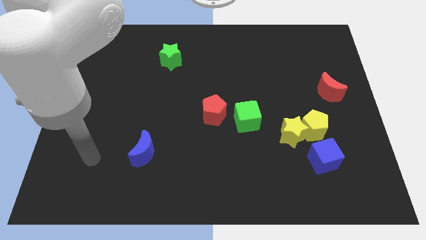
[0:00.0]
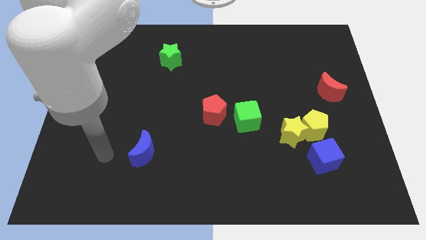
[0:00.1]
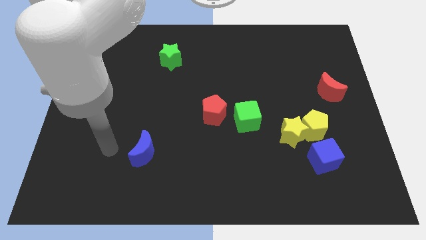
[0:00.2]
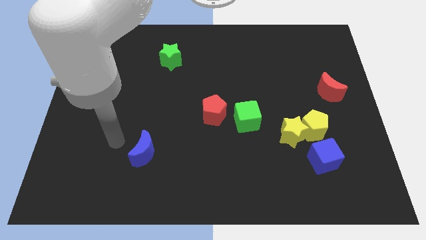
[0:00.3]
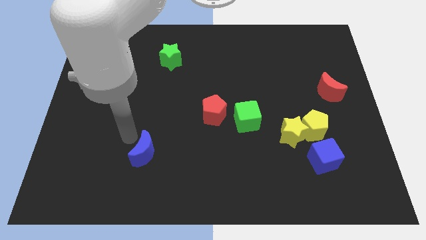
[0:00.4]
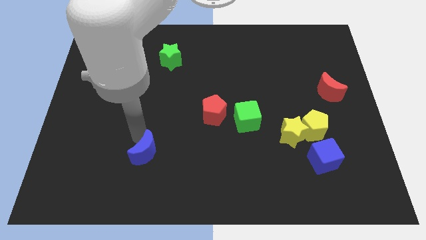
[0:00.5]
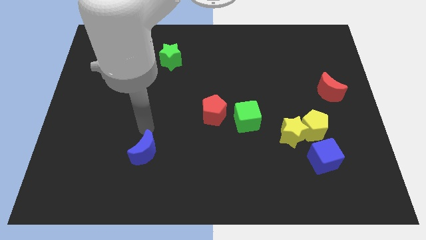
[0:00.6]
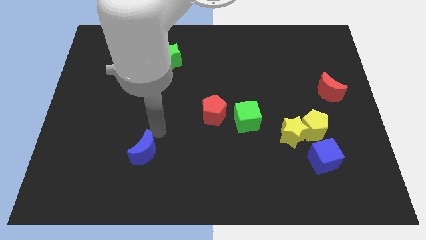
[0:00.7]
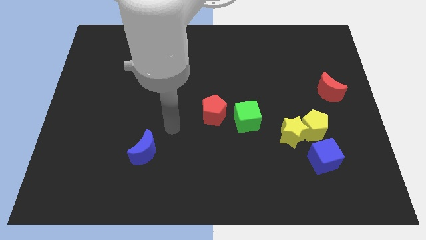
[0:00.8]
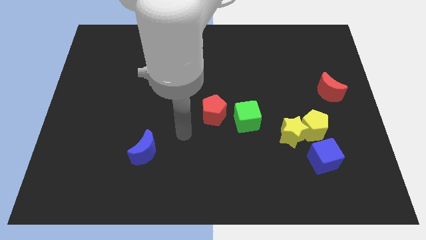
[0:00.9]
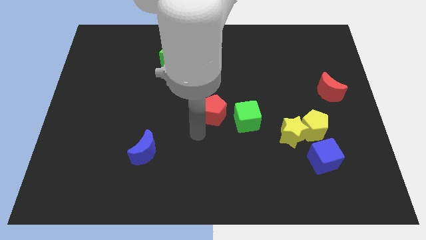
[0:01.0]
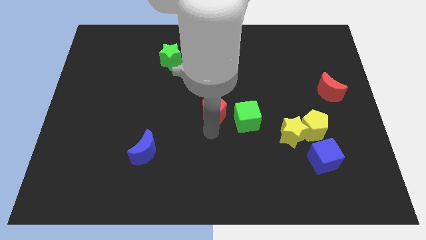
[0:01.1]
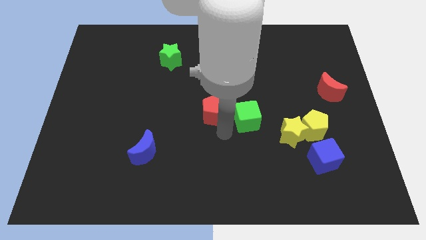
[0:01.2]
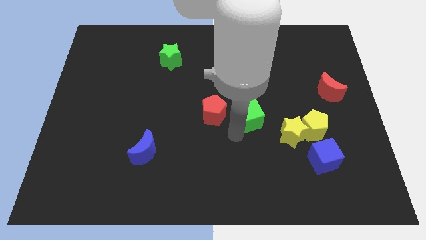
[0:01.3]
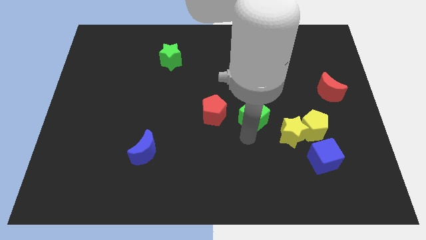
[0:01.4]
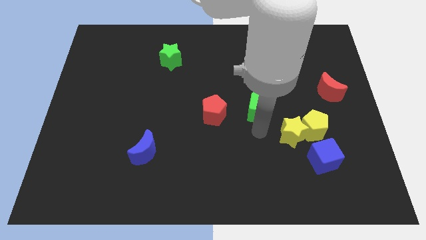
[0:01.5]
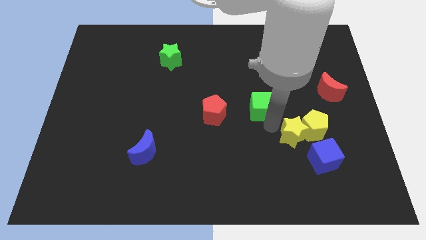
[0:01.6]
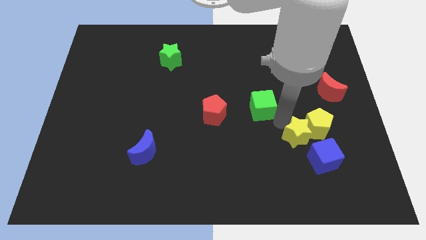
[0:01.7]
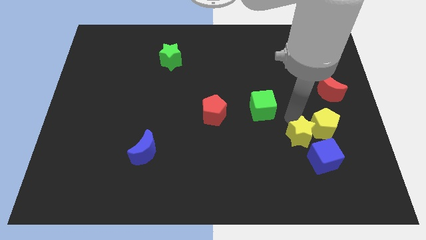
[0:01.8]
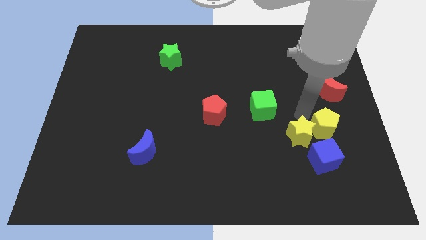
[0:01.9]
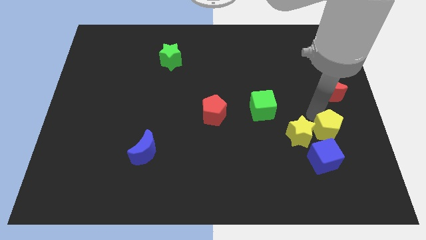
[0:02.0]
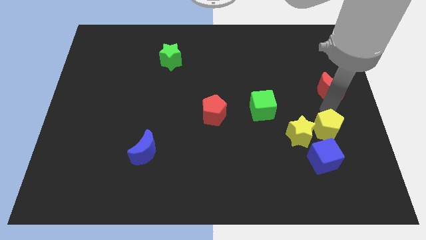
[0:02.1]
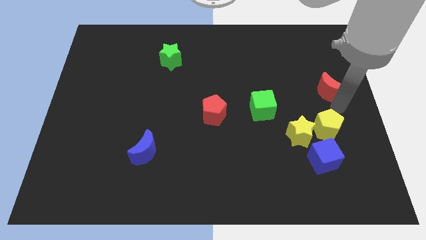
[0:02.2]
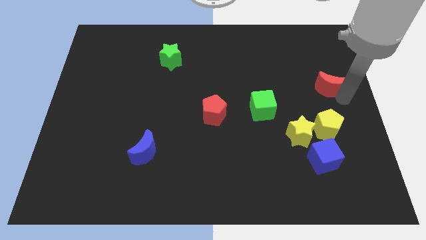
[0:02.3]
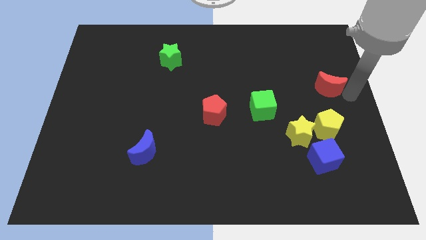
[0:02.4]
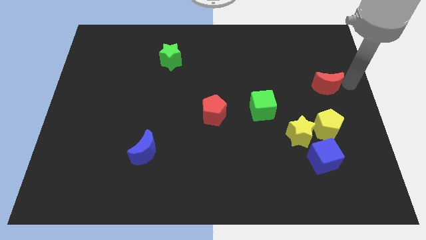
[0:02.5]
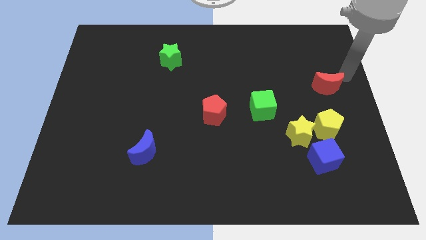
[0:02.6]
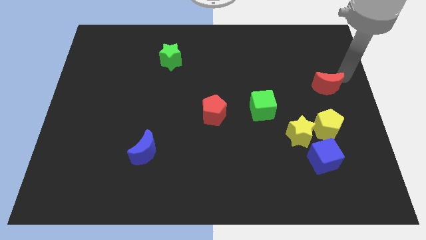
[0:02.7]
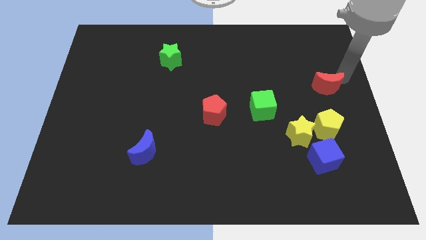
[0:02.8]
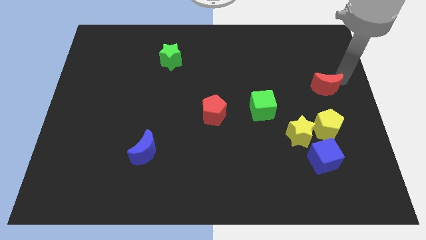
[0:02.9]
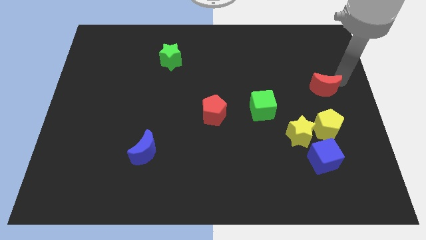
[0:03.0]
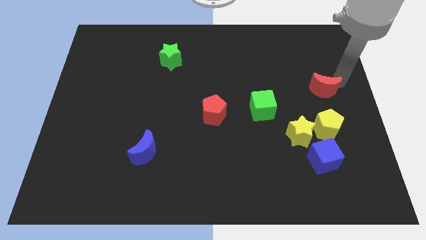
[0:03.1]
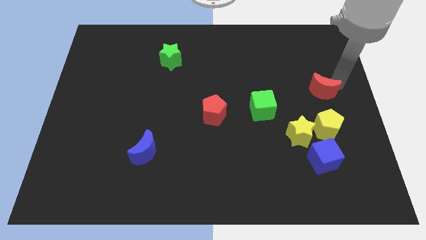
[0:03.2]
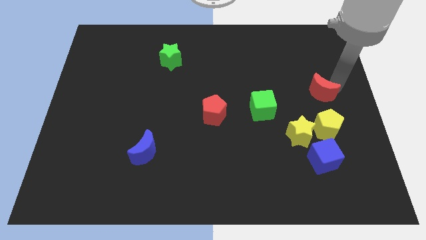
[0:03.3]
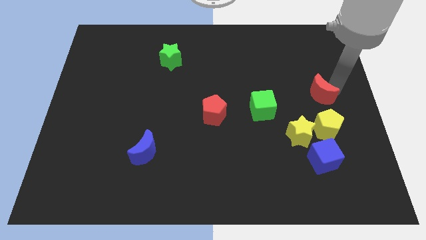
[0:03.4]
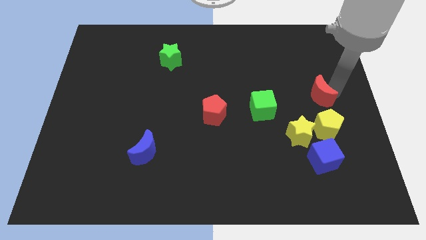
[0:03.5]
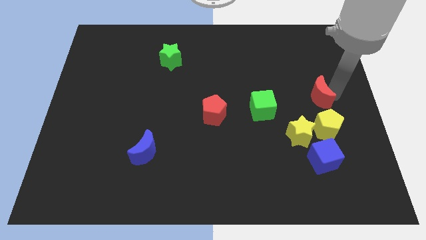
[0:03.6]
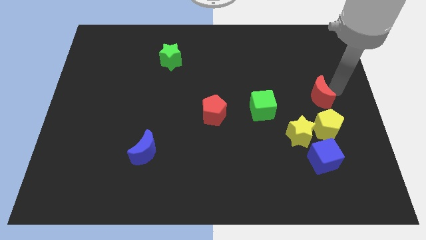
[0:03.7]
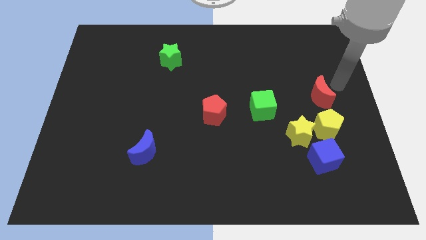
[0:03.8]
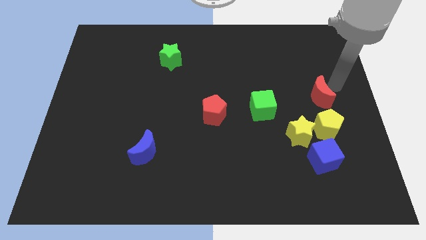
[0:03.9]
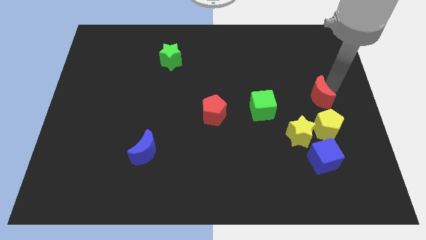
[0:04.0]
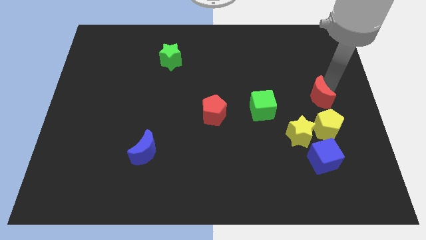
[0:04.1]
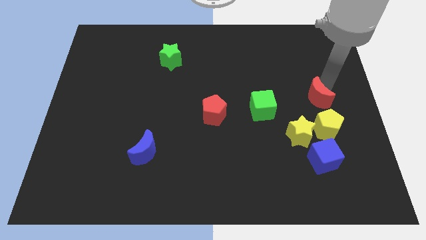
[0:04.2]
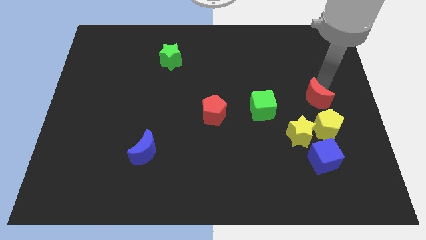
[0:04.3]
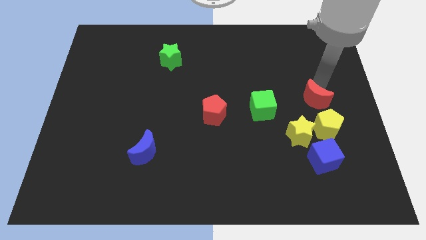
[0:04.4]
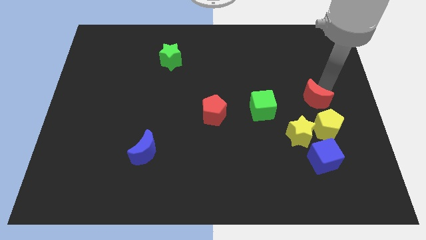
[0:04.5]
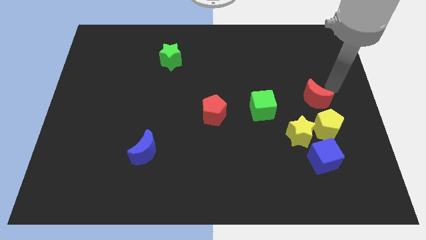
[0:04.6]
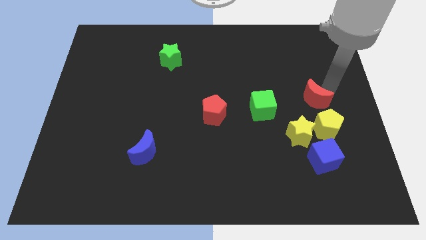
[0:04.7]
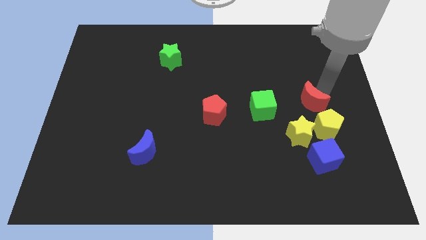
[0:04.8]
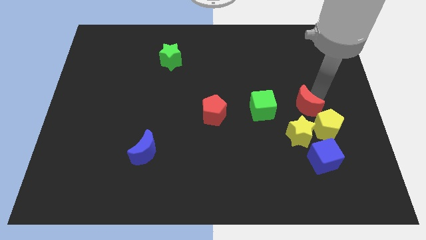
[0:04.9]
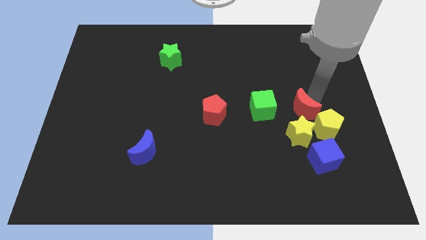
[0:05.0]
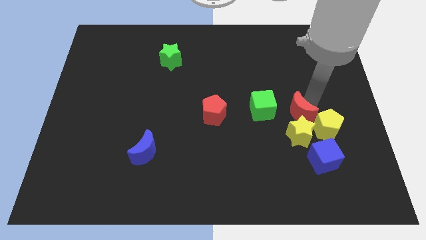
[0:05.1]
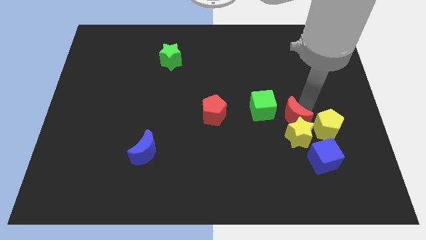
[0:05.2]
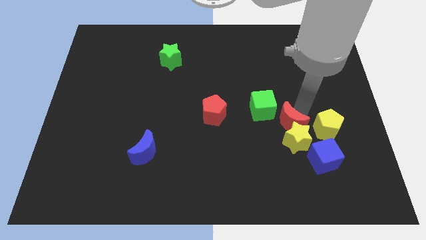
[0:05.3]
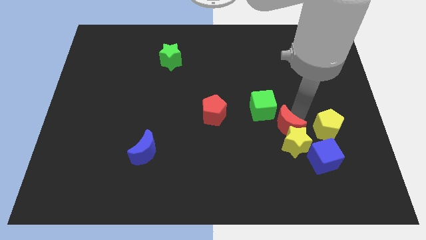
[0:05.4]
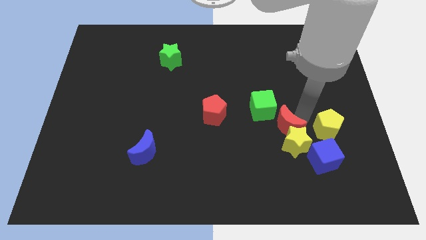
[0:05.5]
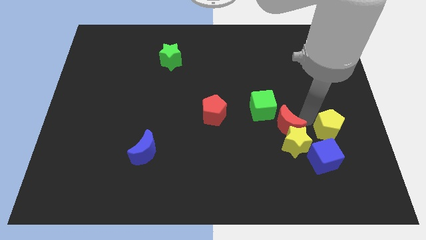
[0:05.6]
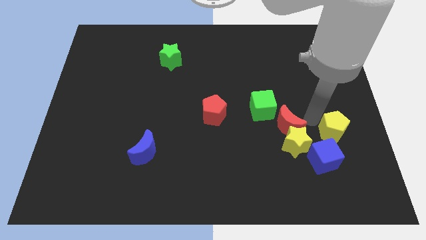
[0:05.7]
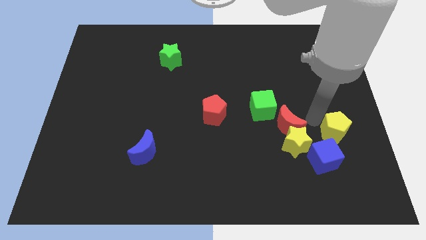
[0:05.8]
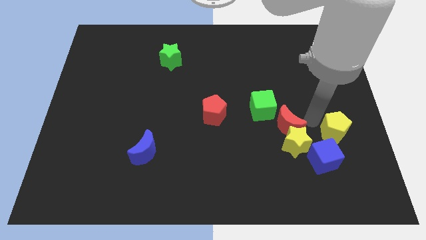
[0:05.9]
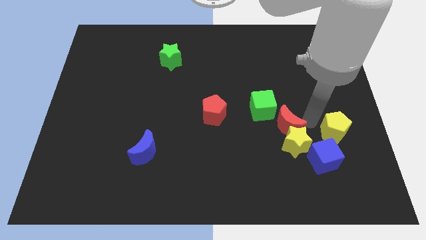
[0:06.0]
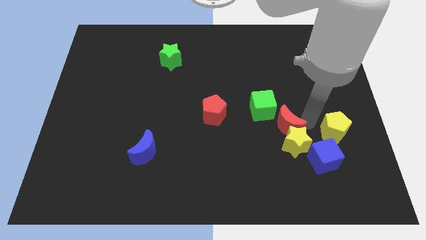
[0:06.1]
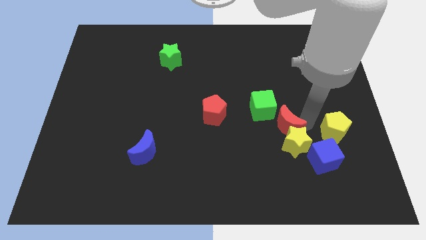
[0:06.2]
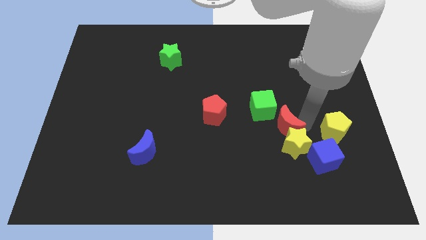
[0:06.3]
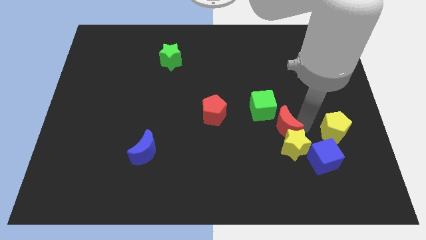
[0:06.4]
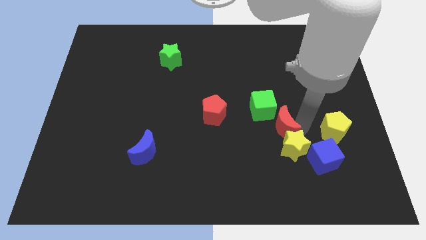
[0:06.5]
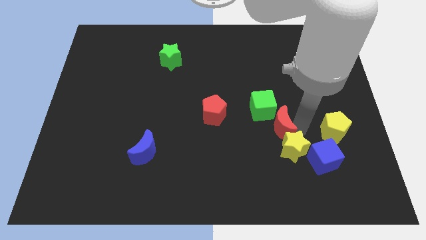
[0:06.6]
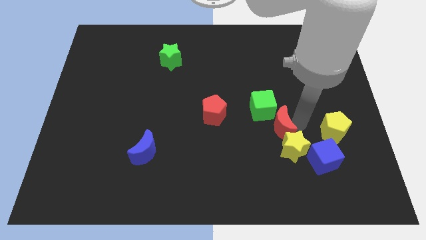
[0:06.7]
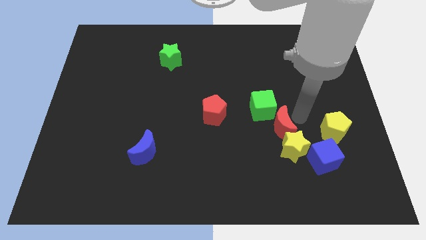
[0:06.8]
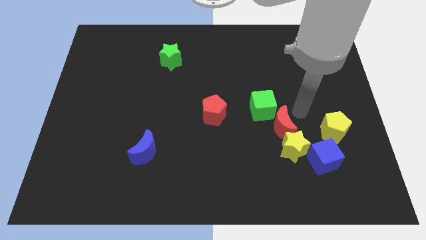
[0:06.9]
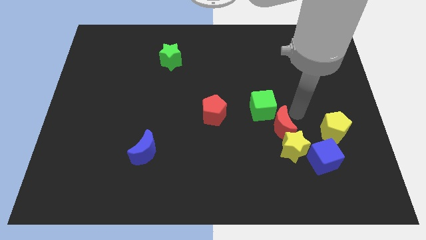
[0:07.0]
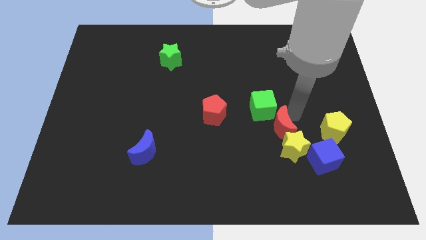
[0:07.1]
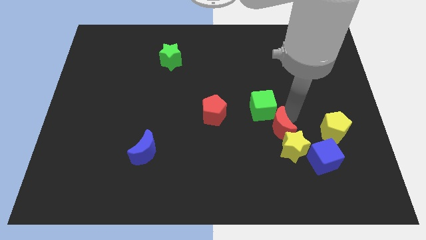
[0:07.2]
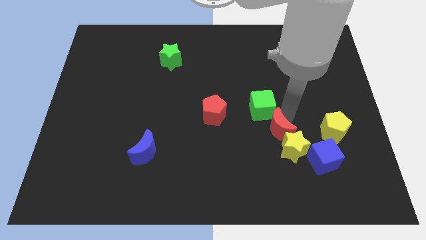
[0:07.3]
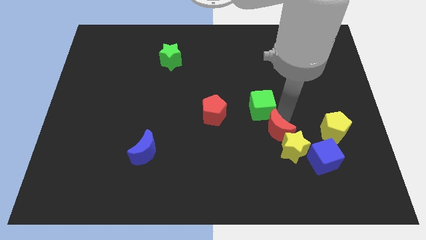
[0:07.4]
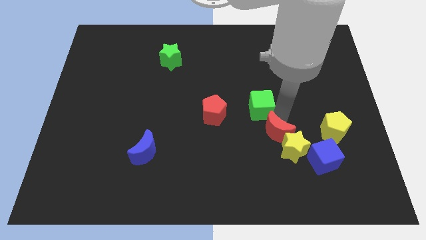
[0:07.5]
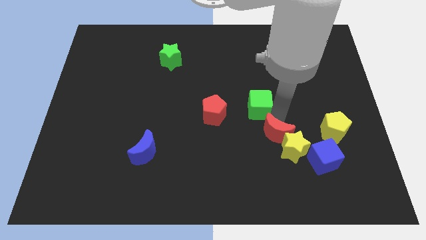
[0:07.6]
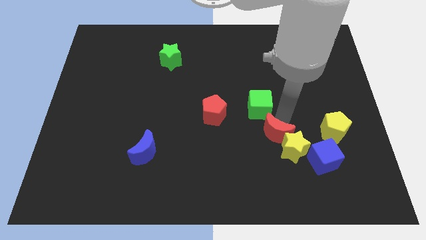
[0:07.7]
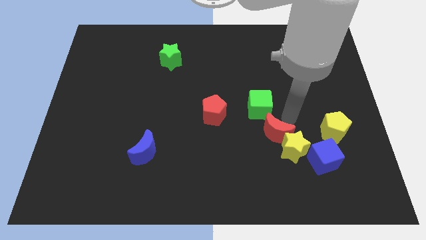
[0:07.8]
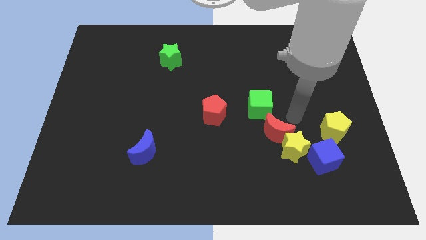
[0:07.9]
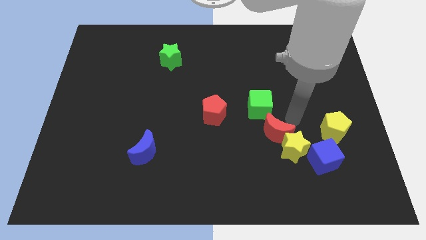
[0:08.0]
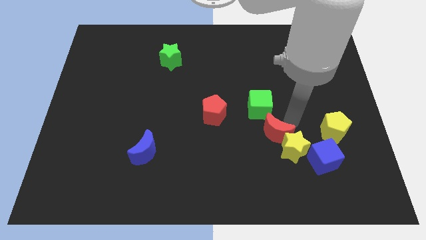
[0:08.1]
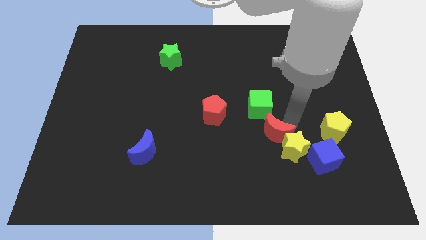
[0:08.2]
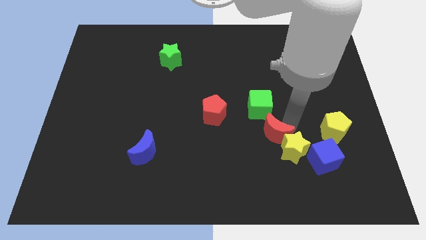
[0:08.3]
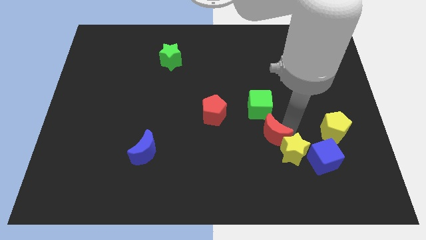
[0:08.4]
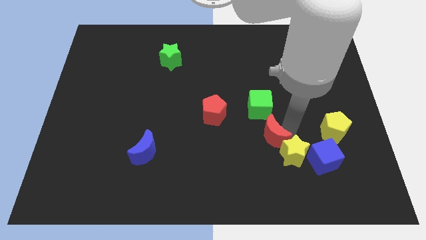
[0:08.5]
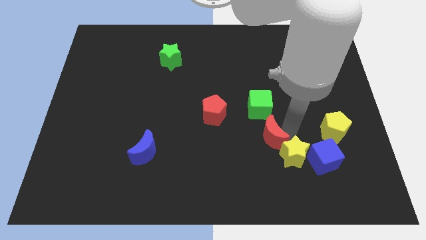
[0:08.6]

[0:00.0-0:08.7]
move the red moon downwards and then to the left

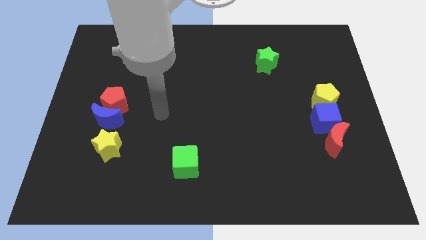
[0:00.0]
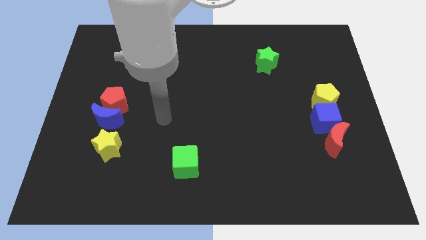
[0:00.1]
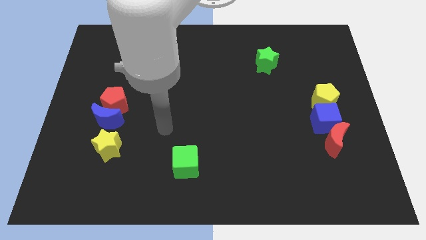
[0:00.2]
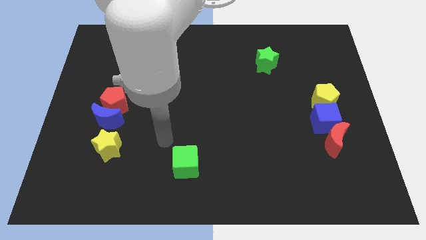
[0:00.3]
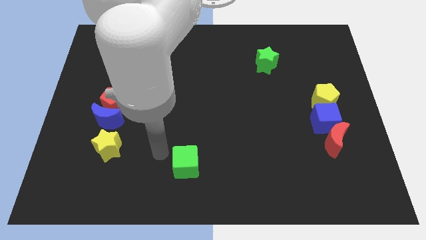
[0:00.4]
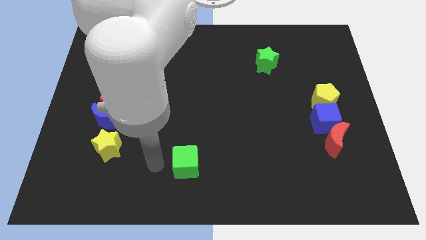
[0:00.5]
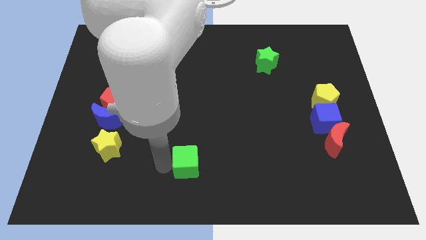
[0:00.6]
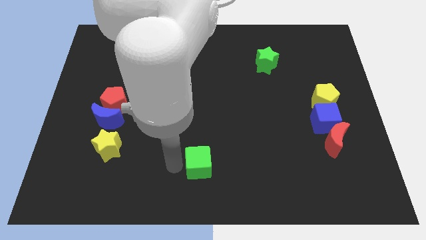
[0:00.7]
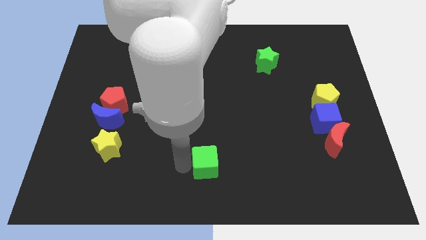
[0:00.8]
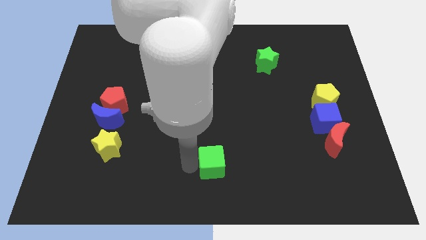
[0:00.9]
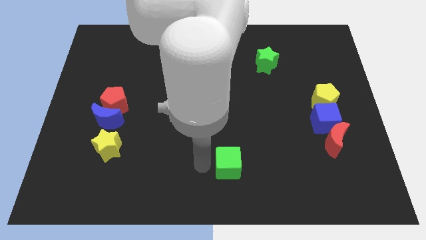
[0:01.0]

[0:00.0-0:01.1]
push the green cube somewhat right
